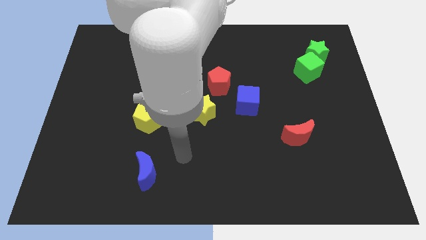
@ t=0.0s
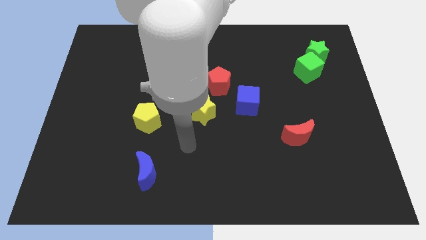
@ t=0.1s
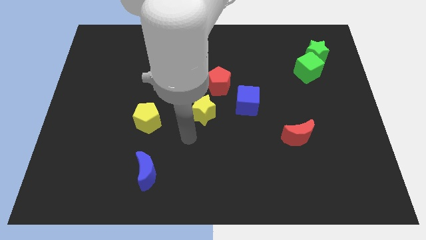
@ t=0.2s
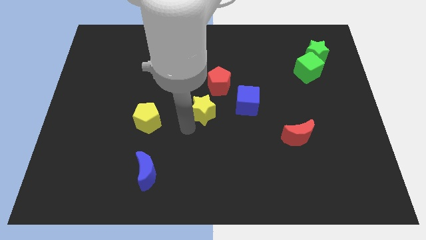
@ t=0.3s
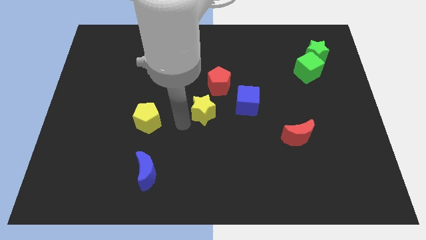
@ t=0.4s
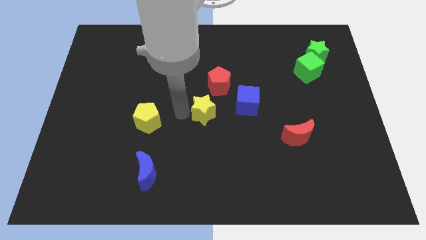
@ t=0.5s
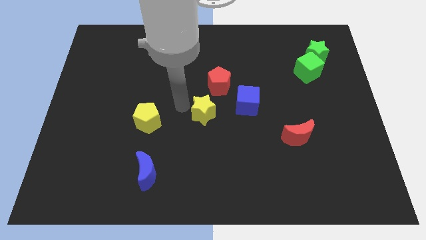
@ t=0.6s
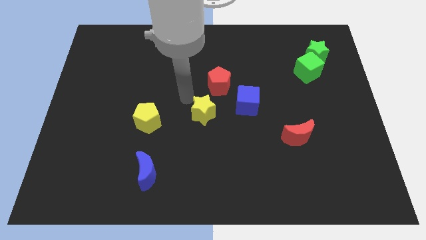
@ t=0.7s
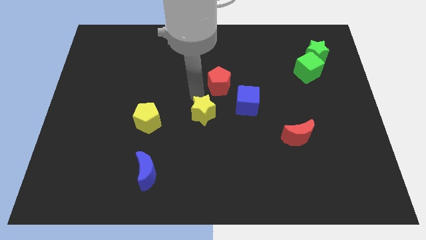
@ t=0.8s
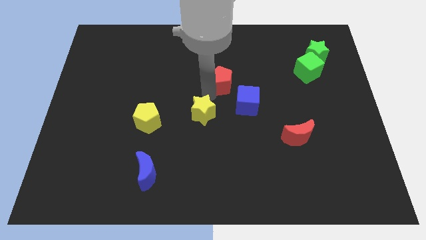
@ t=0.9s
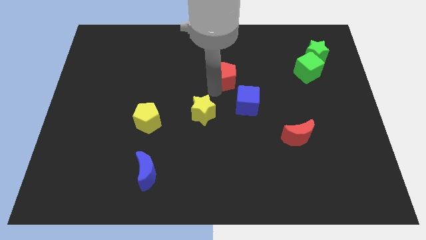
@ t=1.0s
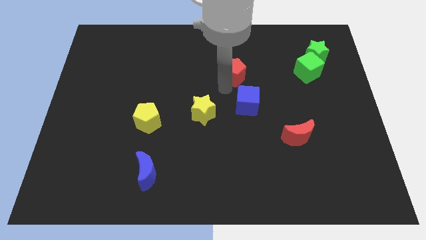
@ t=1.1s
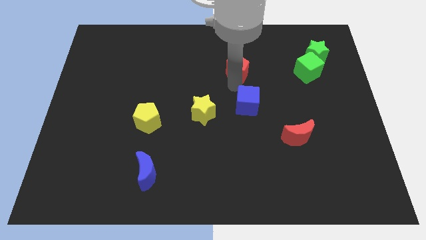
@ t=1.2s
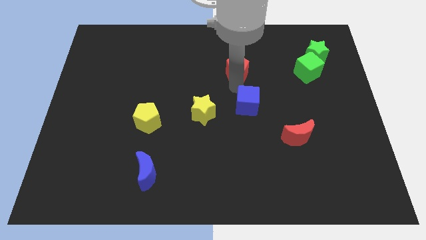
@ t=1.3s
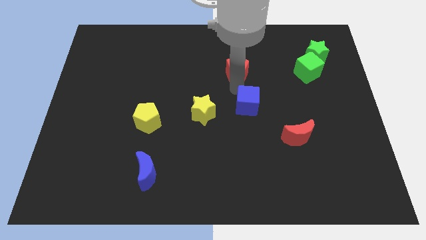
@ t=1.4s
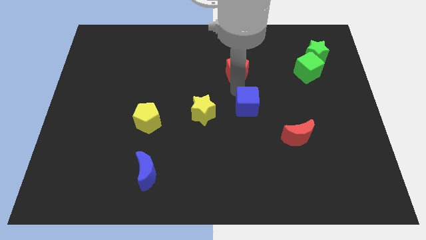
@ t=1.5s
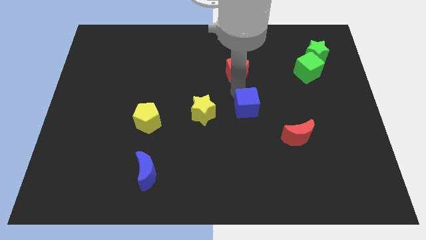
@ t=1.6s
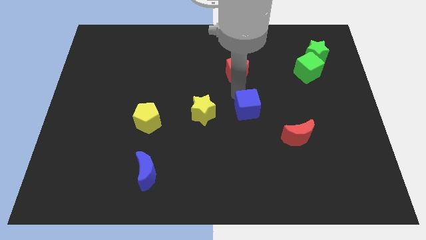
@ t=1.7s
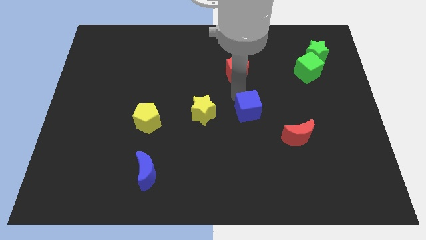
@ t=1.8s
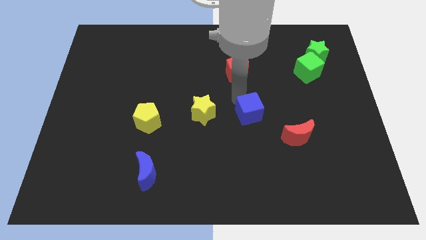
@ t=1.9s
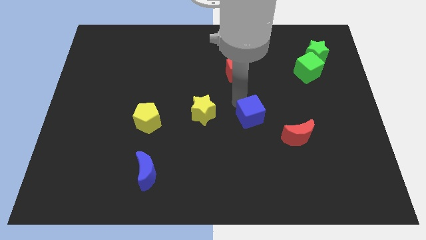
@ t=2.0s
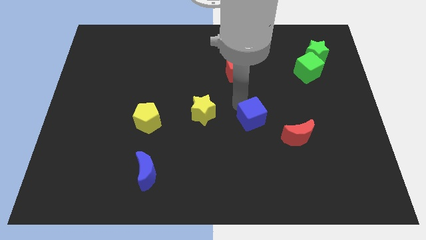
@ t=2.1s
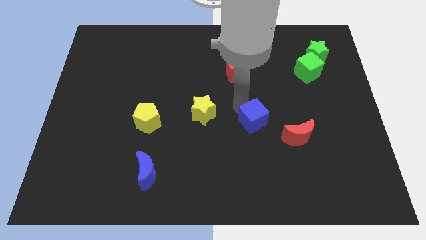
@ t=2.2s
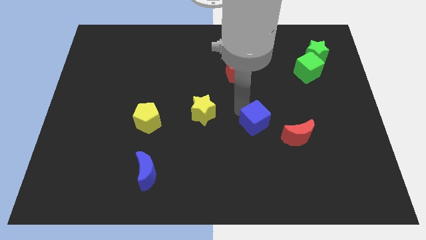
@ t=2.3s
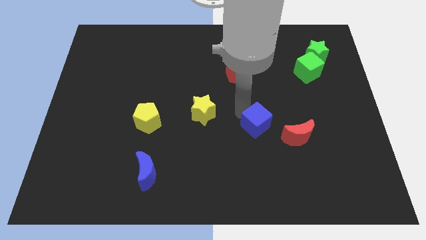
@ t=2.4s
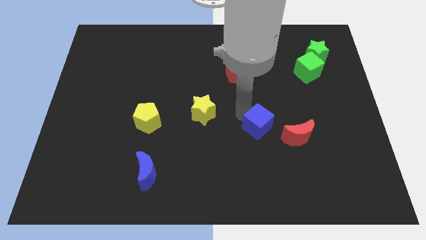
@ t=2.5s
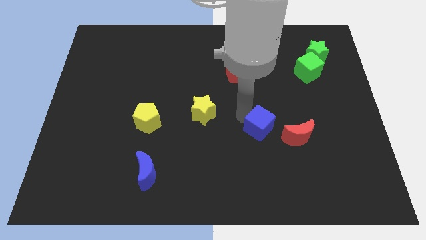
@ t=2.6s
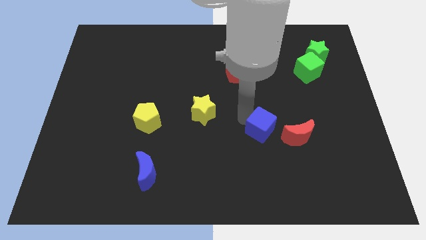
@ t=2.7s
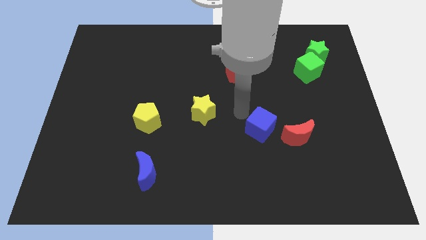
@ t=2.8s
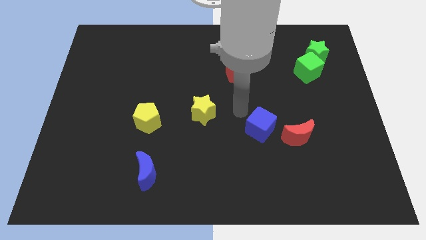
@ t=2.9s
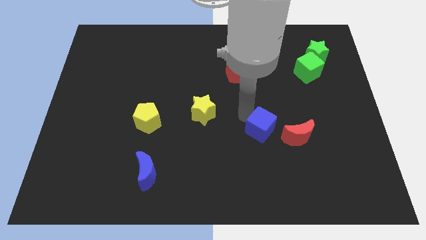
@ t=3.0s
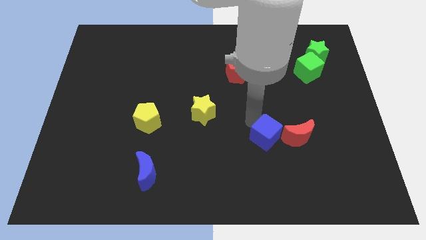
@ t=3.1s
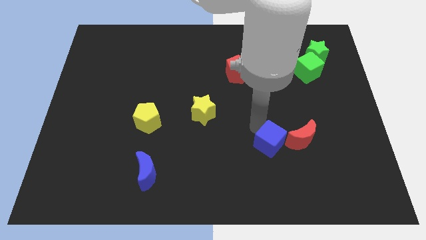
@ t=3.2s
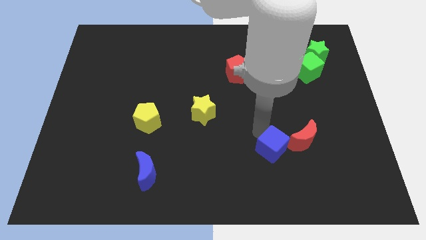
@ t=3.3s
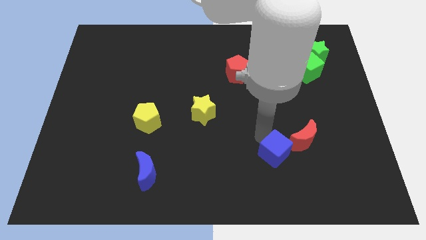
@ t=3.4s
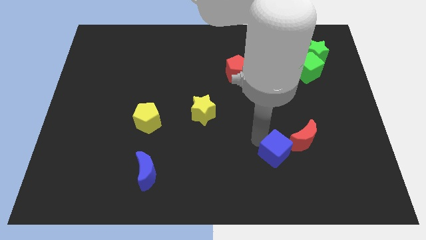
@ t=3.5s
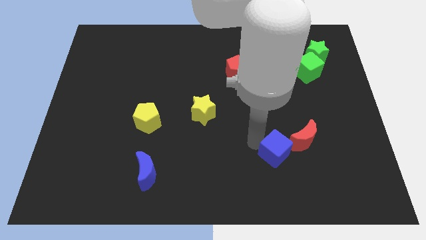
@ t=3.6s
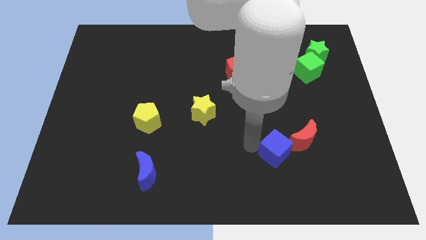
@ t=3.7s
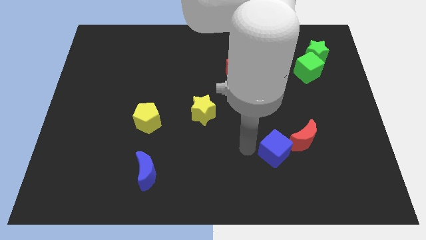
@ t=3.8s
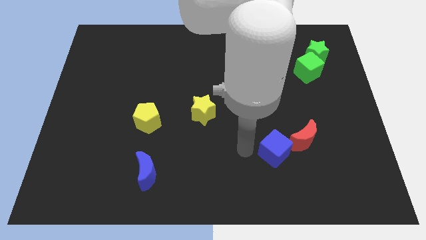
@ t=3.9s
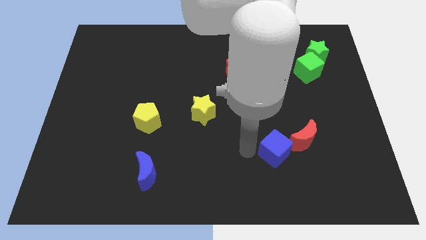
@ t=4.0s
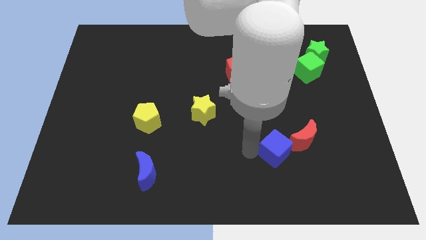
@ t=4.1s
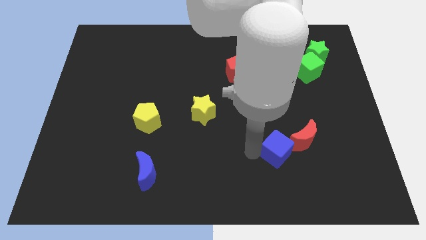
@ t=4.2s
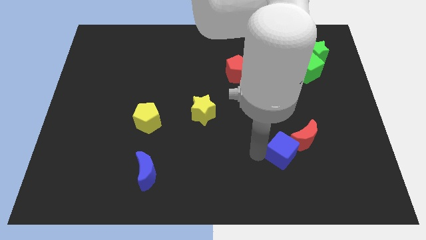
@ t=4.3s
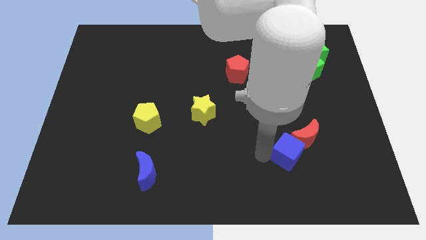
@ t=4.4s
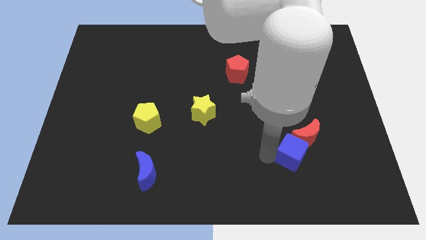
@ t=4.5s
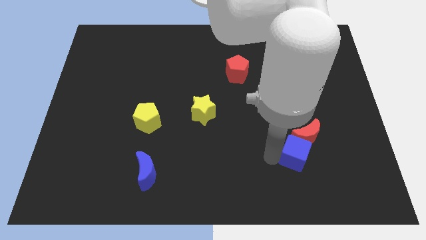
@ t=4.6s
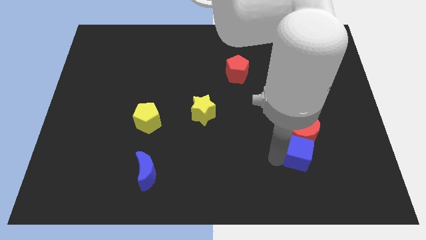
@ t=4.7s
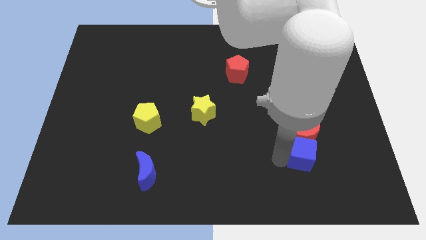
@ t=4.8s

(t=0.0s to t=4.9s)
slide the blue cube to the bottom right of the red moon

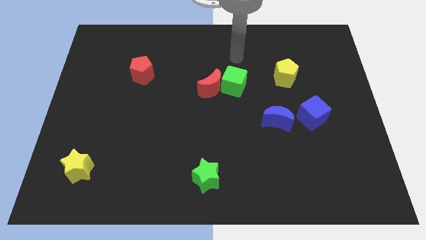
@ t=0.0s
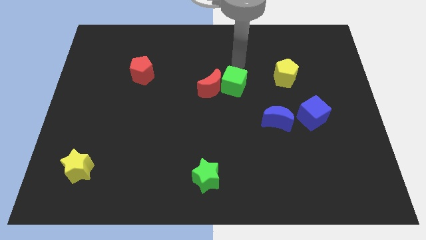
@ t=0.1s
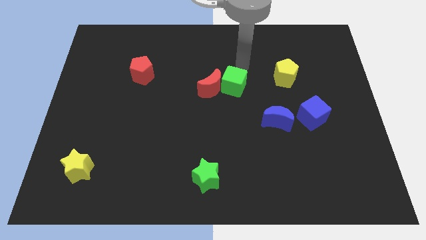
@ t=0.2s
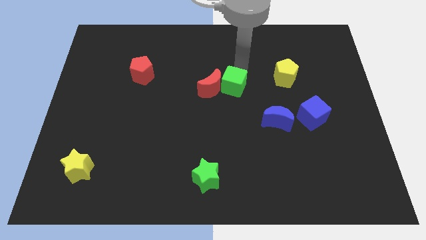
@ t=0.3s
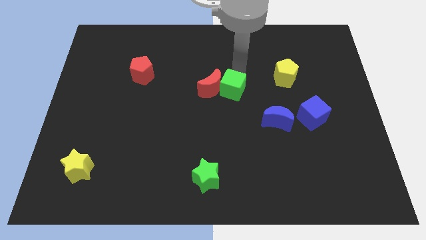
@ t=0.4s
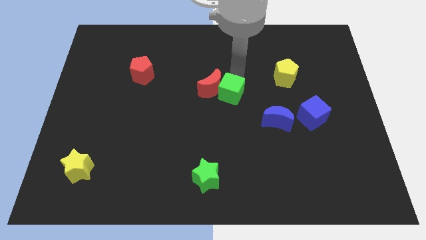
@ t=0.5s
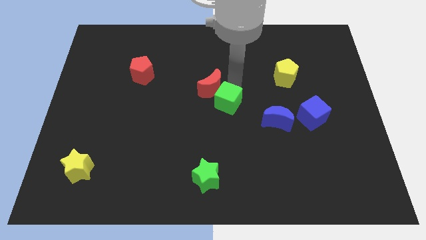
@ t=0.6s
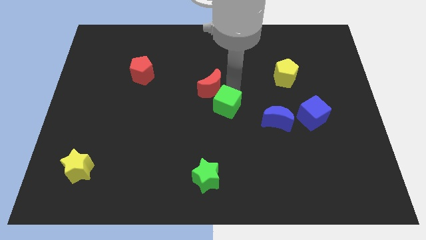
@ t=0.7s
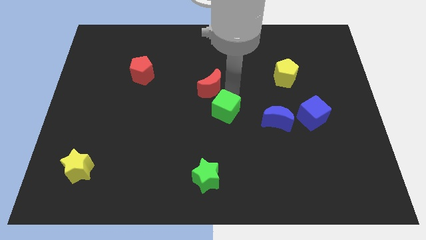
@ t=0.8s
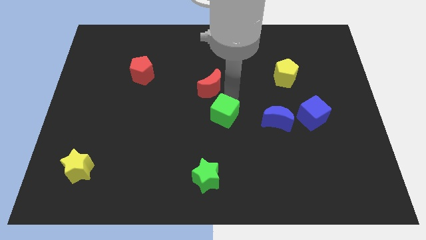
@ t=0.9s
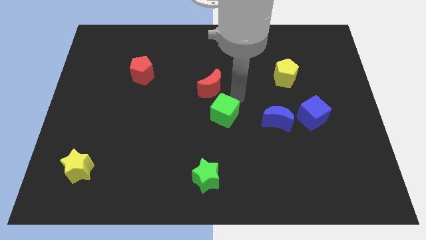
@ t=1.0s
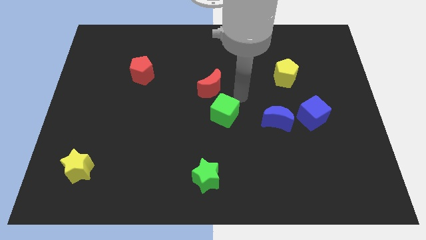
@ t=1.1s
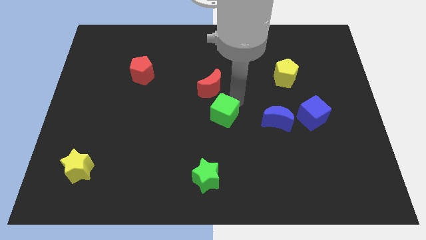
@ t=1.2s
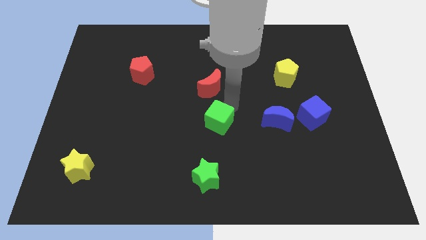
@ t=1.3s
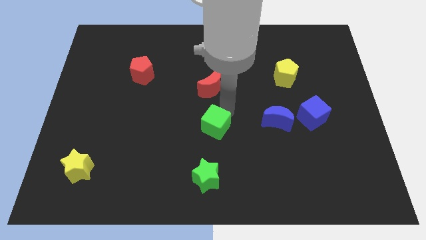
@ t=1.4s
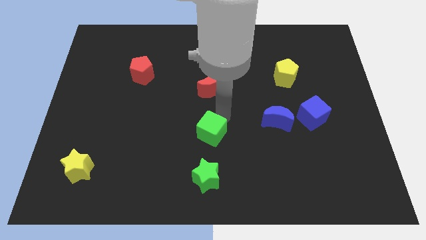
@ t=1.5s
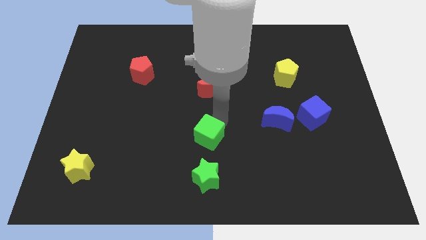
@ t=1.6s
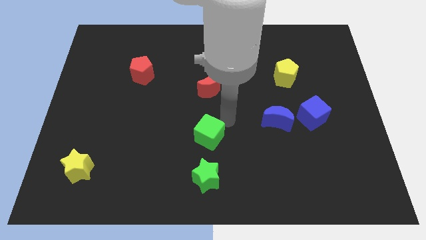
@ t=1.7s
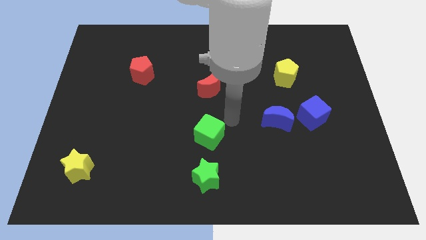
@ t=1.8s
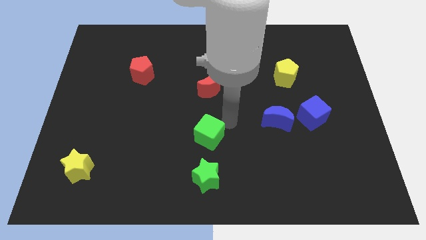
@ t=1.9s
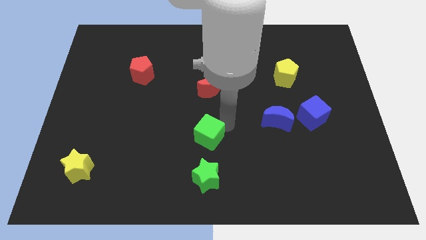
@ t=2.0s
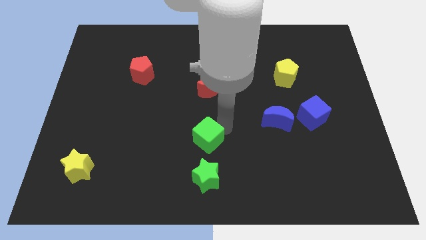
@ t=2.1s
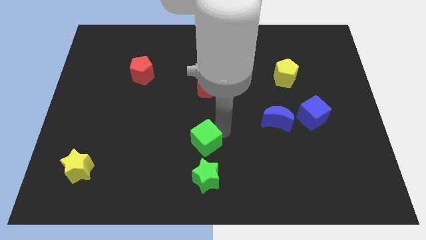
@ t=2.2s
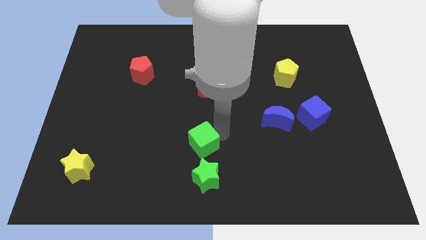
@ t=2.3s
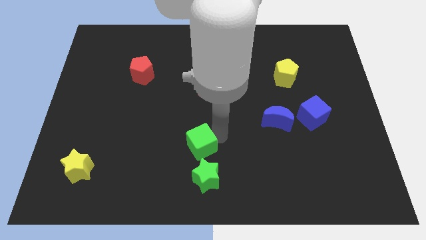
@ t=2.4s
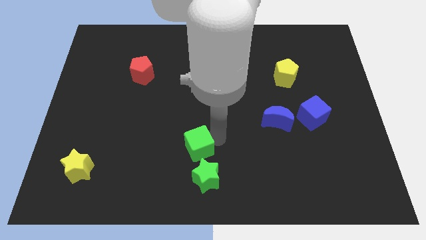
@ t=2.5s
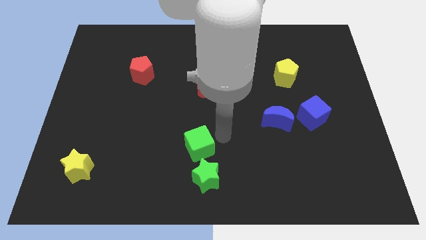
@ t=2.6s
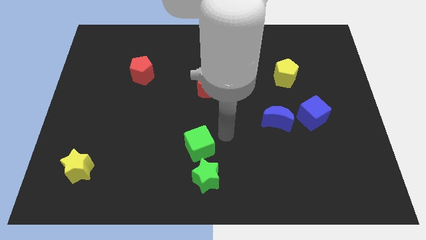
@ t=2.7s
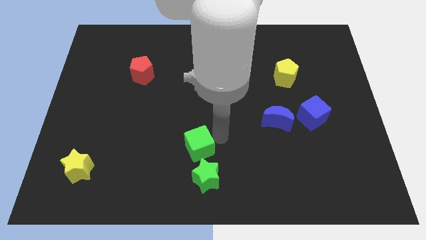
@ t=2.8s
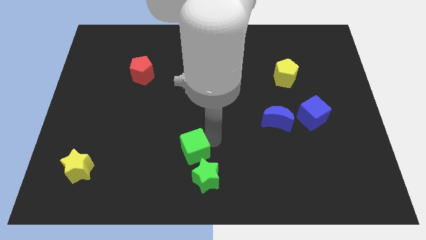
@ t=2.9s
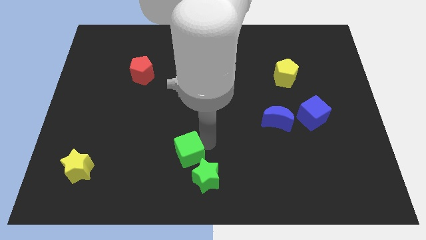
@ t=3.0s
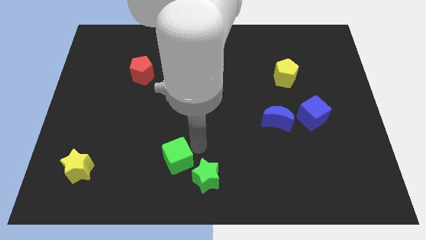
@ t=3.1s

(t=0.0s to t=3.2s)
slide the green cube to the left of the green star
